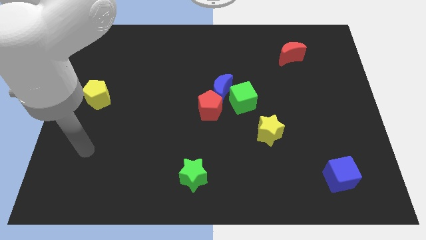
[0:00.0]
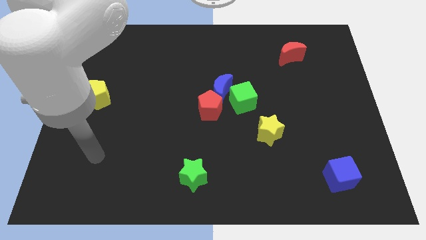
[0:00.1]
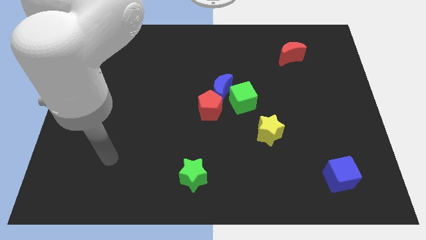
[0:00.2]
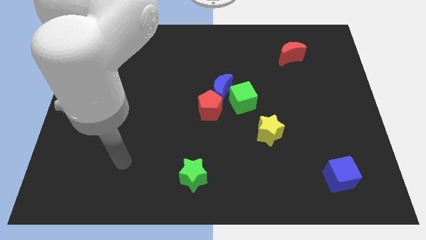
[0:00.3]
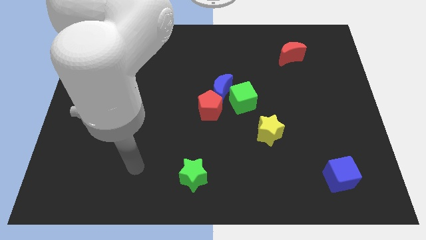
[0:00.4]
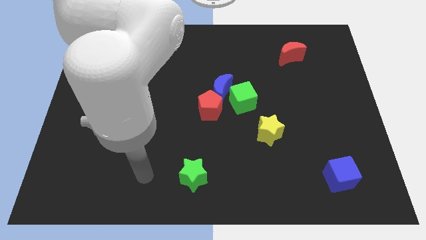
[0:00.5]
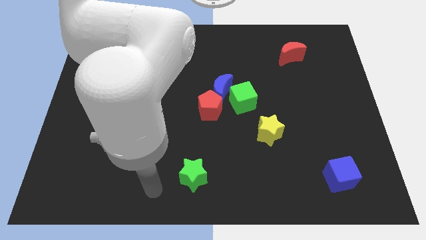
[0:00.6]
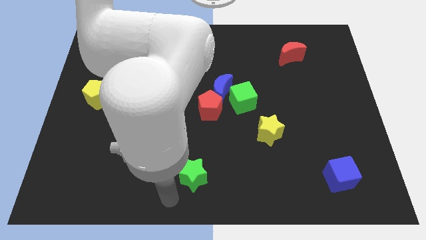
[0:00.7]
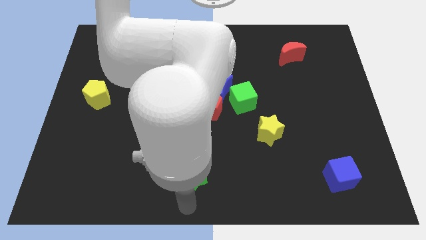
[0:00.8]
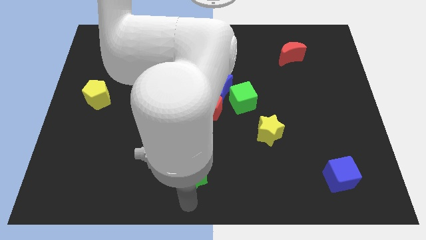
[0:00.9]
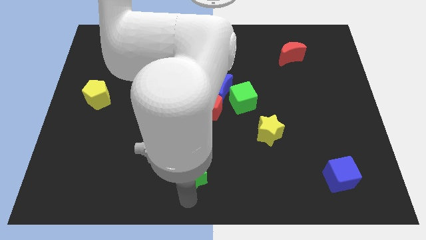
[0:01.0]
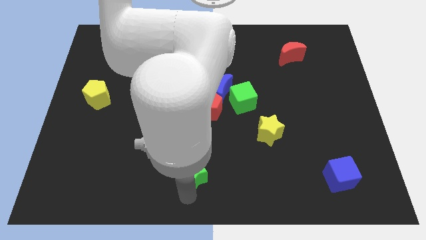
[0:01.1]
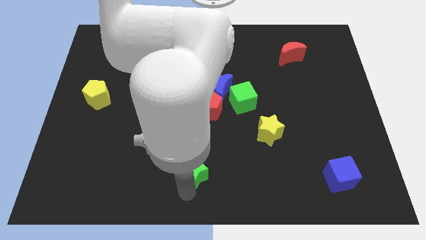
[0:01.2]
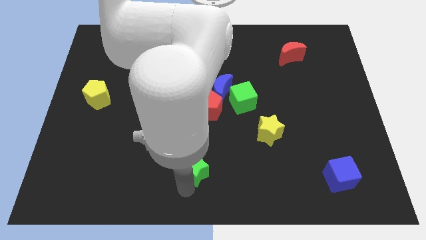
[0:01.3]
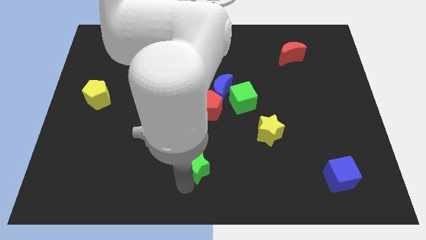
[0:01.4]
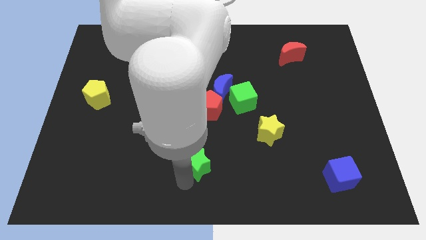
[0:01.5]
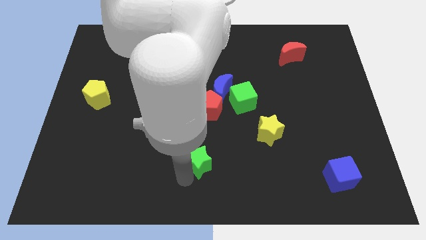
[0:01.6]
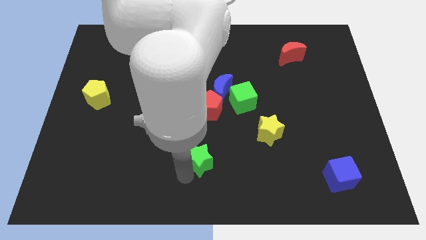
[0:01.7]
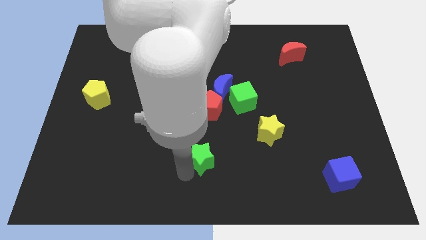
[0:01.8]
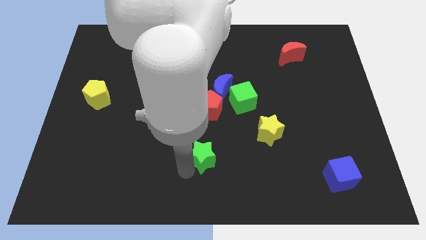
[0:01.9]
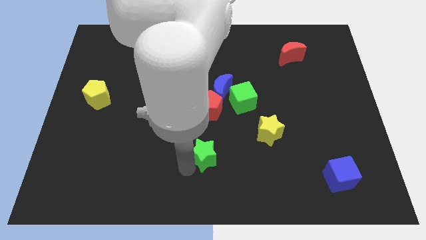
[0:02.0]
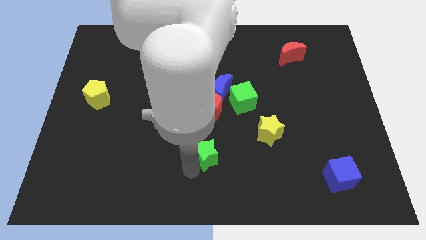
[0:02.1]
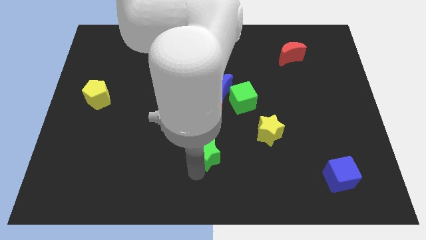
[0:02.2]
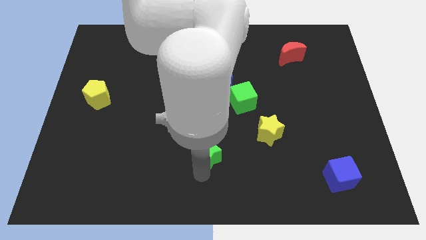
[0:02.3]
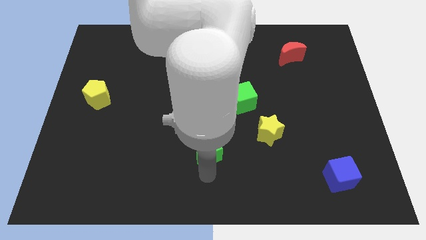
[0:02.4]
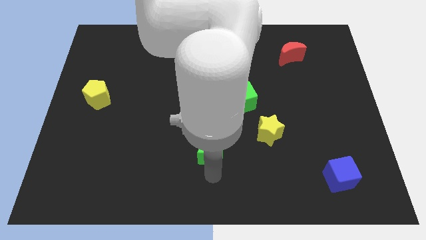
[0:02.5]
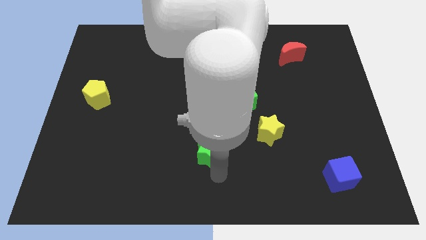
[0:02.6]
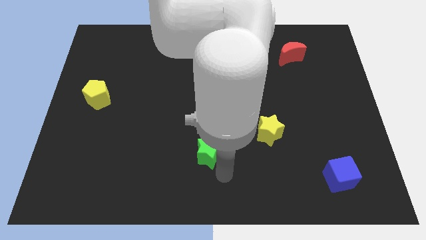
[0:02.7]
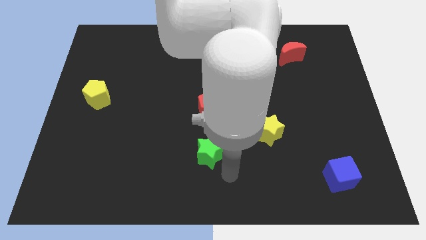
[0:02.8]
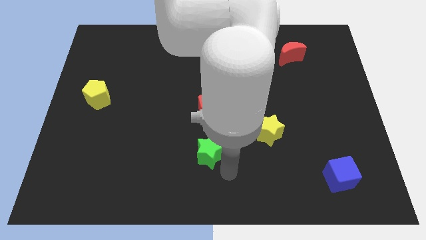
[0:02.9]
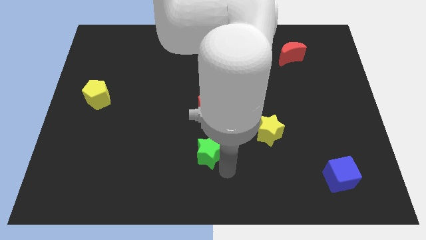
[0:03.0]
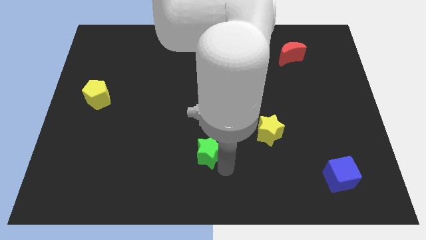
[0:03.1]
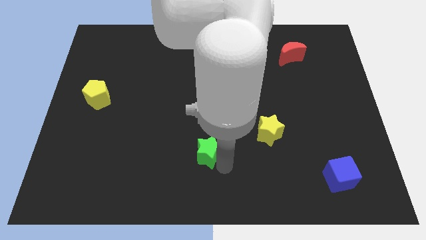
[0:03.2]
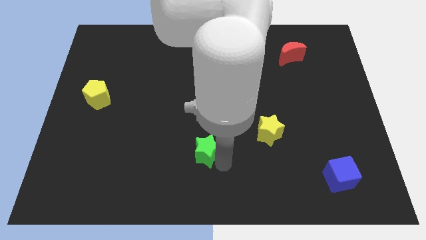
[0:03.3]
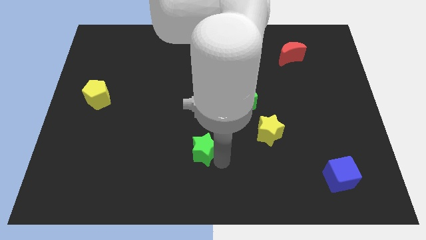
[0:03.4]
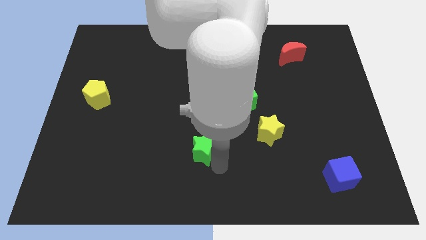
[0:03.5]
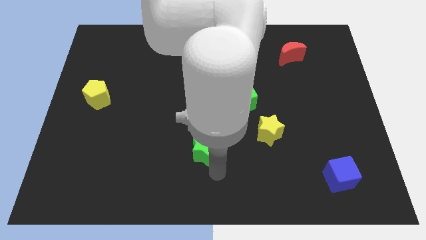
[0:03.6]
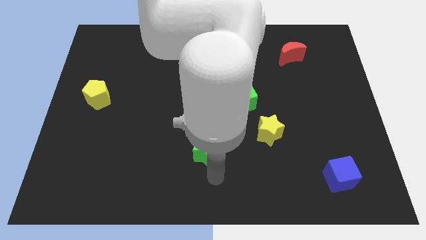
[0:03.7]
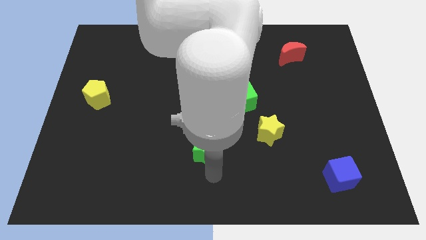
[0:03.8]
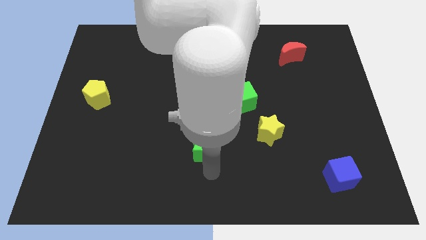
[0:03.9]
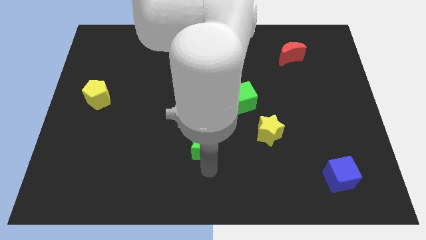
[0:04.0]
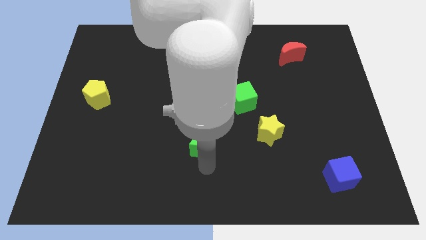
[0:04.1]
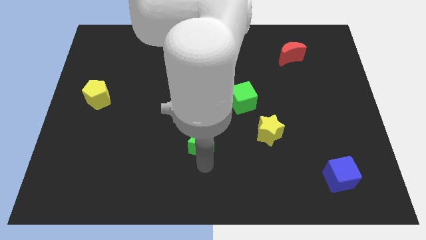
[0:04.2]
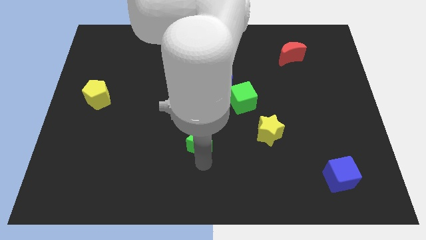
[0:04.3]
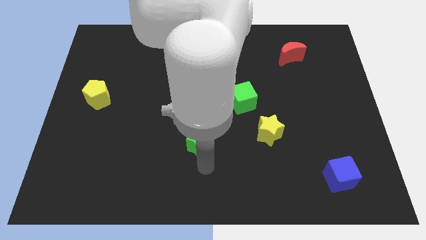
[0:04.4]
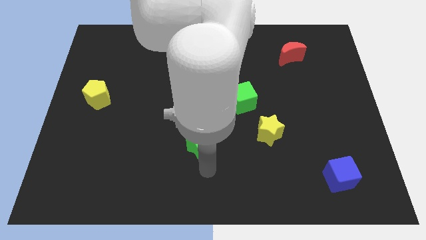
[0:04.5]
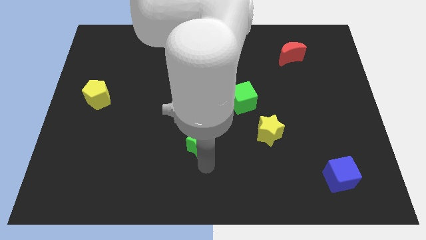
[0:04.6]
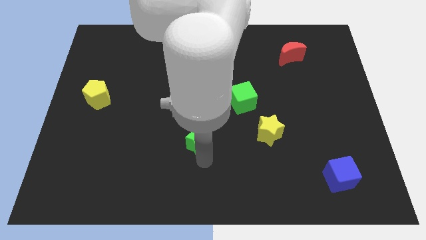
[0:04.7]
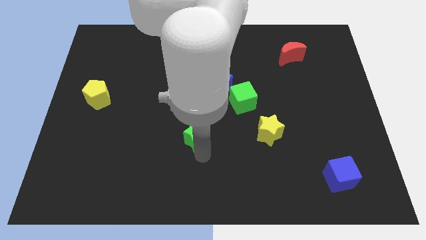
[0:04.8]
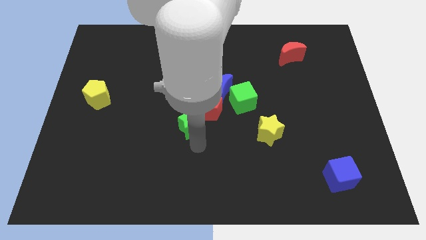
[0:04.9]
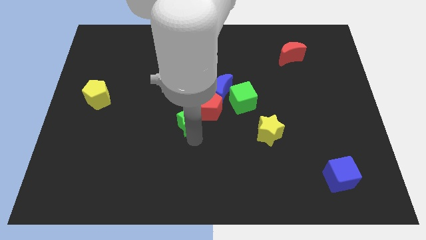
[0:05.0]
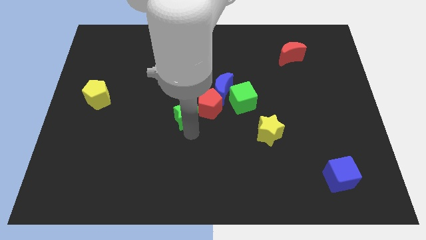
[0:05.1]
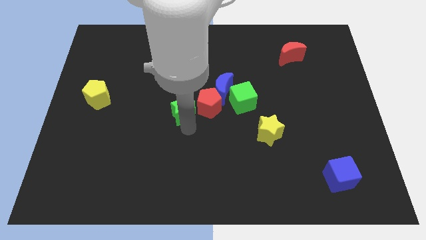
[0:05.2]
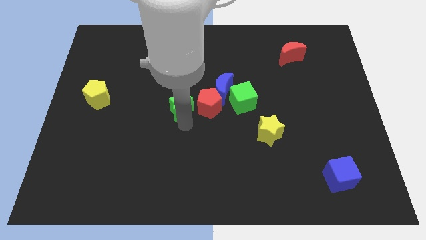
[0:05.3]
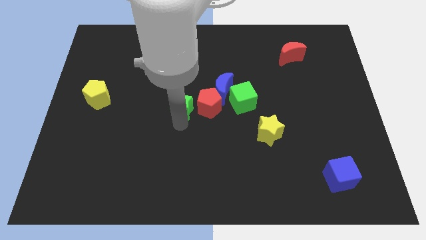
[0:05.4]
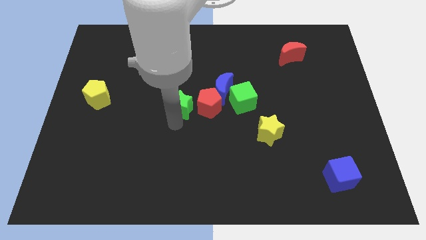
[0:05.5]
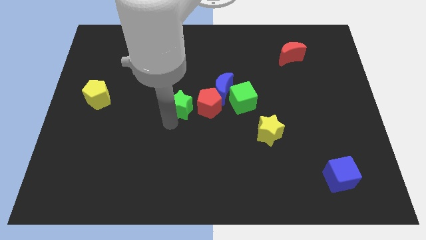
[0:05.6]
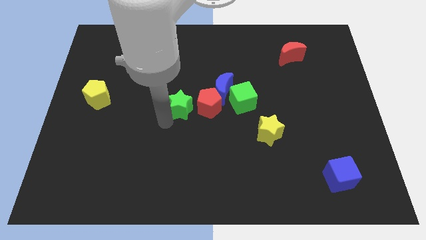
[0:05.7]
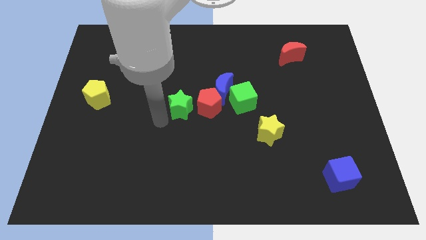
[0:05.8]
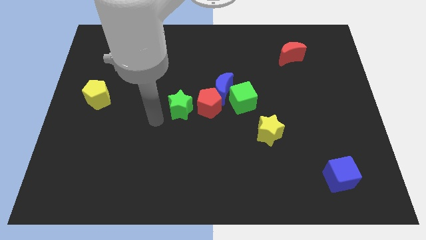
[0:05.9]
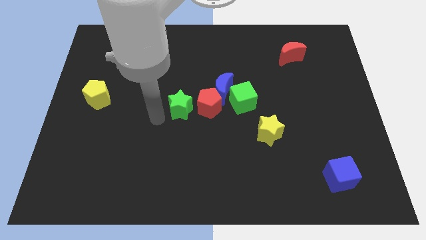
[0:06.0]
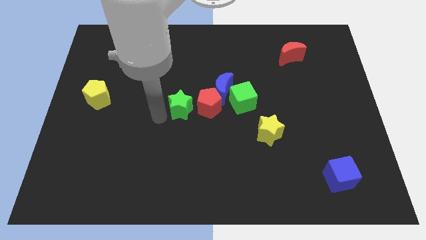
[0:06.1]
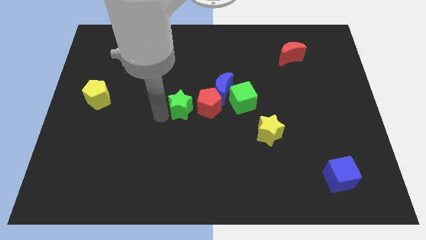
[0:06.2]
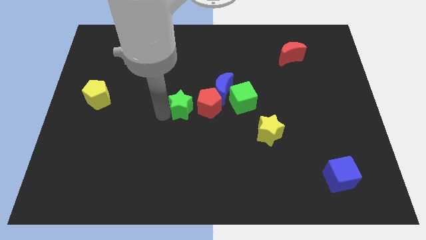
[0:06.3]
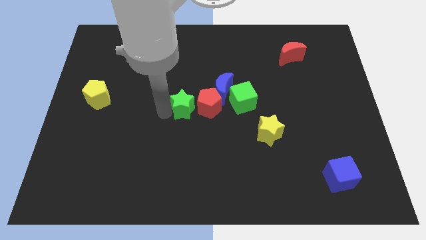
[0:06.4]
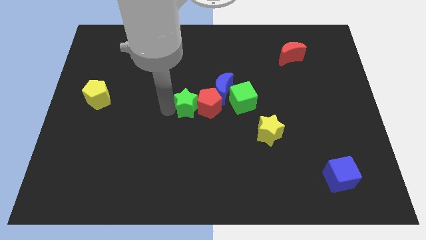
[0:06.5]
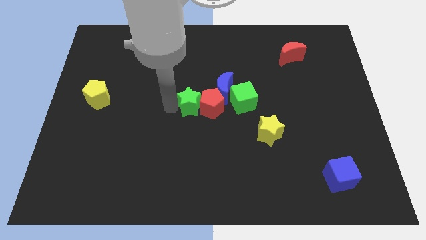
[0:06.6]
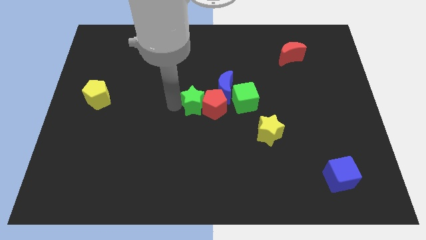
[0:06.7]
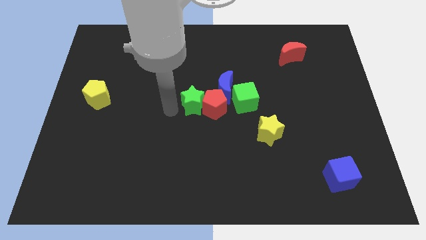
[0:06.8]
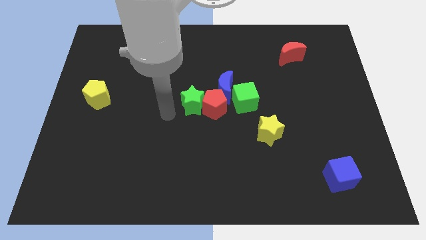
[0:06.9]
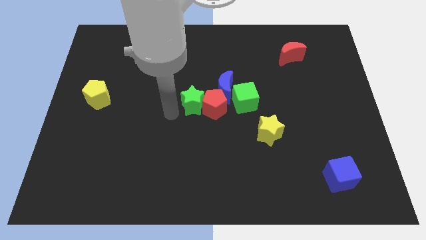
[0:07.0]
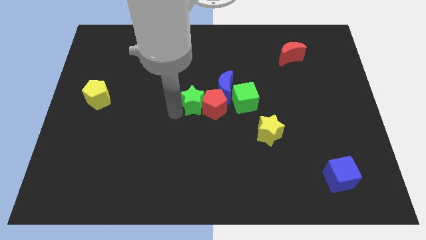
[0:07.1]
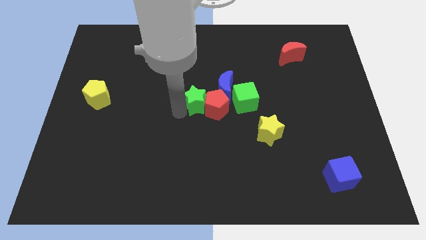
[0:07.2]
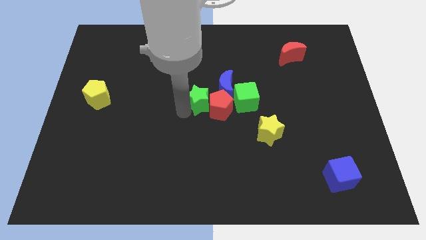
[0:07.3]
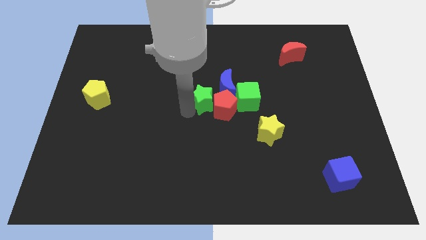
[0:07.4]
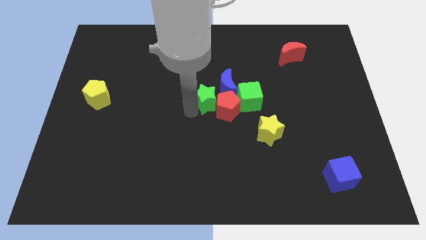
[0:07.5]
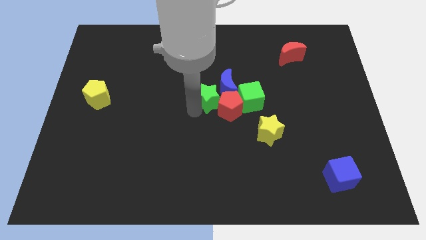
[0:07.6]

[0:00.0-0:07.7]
move the green star to the blue moon
